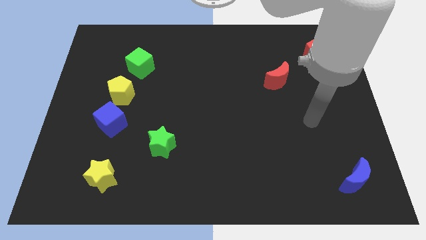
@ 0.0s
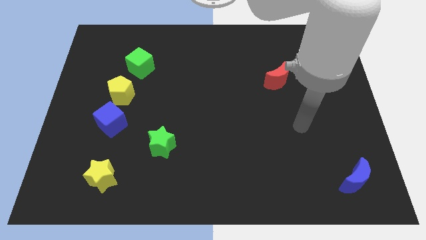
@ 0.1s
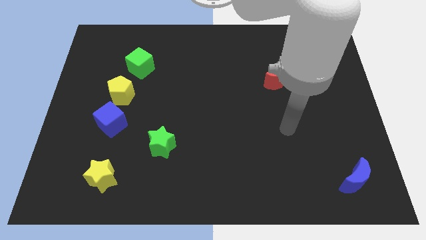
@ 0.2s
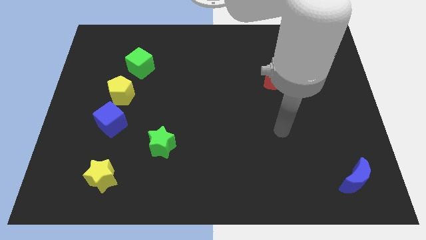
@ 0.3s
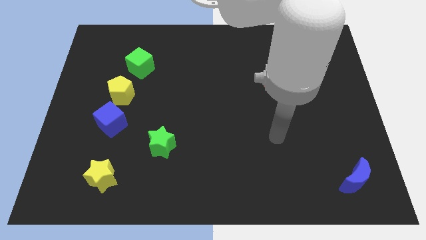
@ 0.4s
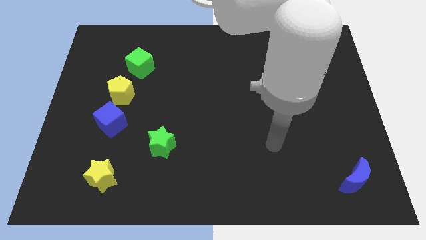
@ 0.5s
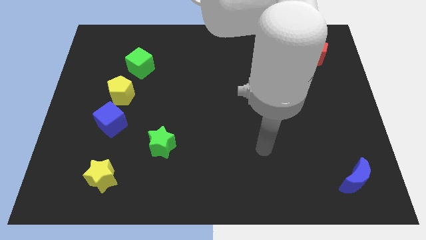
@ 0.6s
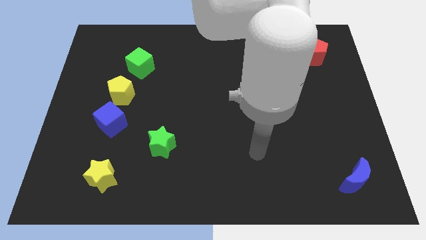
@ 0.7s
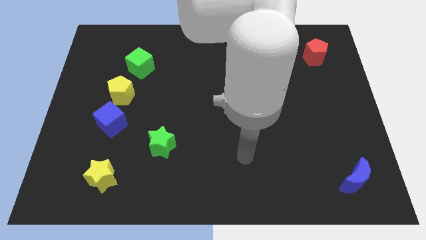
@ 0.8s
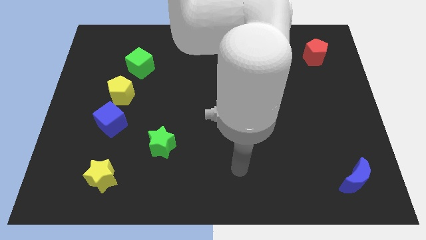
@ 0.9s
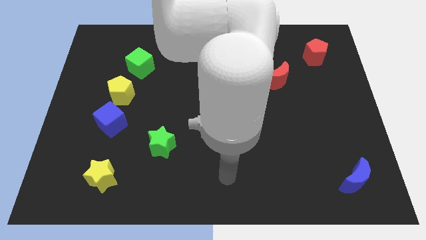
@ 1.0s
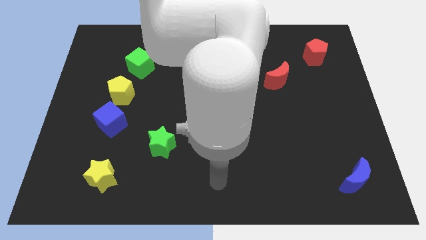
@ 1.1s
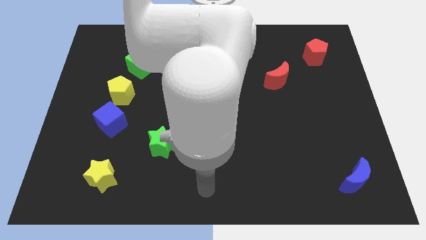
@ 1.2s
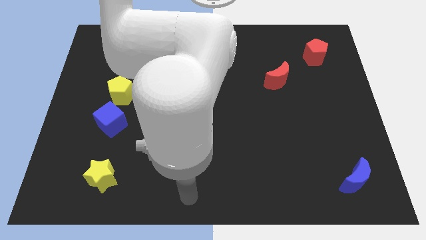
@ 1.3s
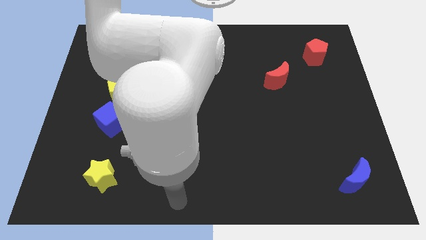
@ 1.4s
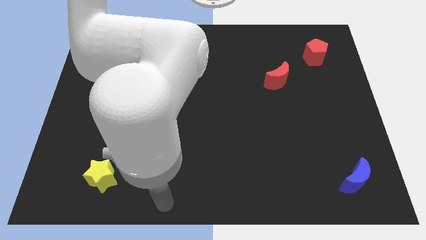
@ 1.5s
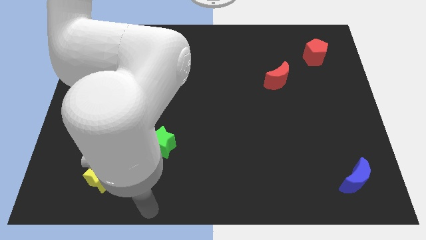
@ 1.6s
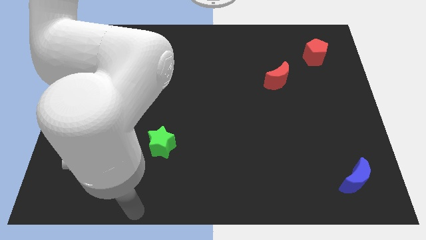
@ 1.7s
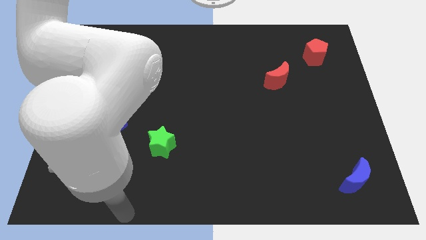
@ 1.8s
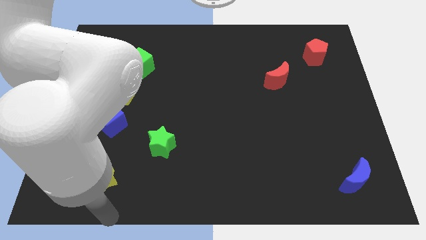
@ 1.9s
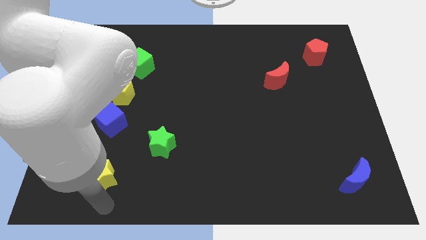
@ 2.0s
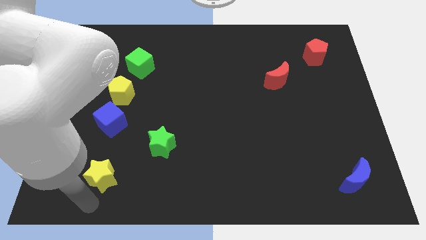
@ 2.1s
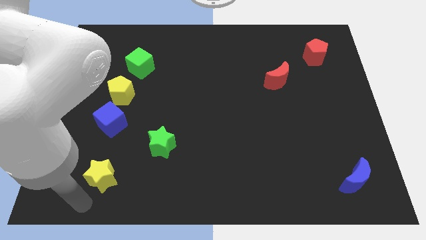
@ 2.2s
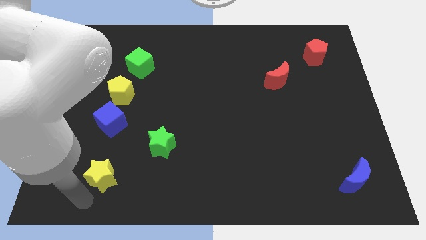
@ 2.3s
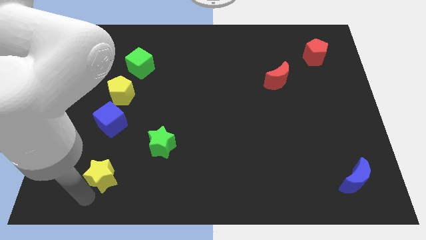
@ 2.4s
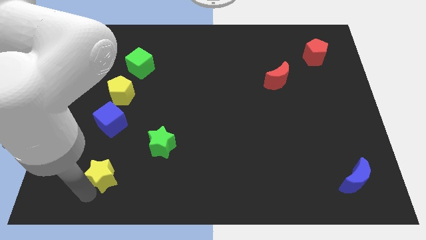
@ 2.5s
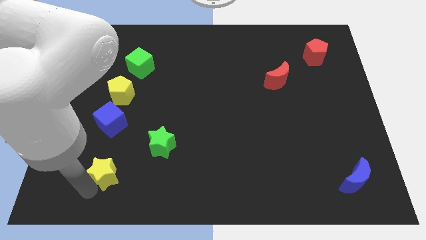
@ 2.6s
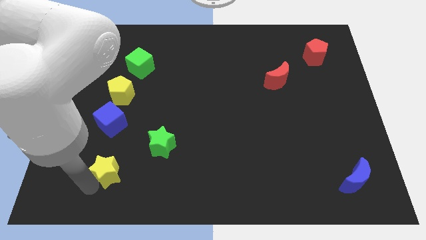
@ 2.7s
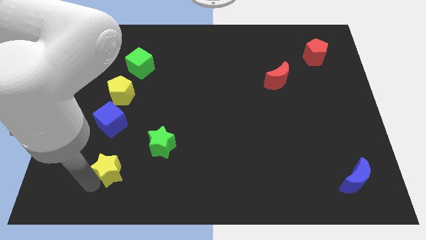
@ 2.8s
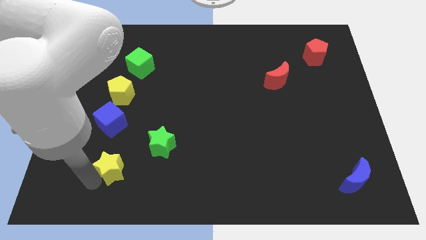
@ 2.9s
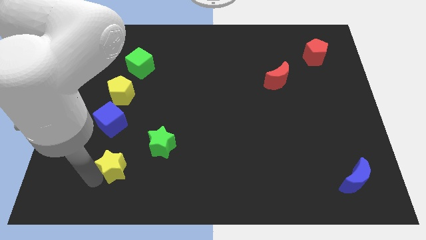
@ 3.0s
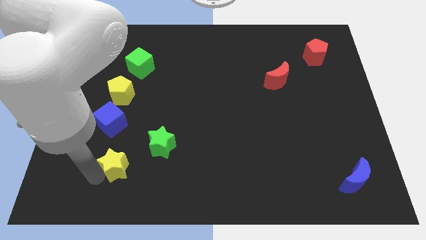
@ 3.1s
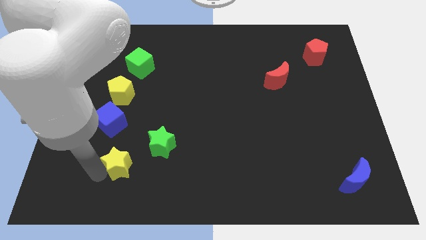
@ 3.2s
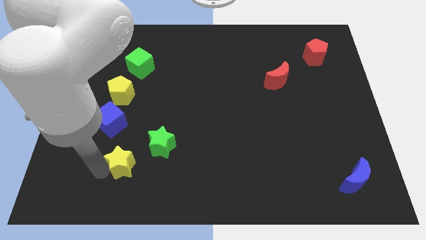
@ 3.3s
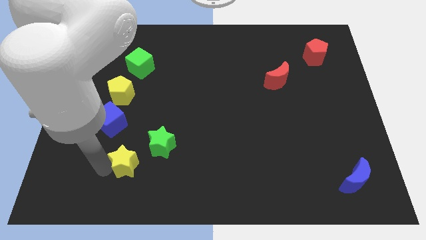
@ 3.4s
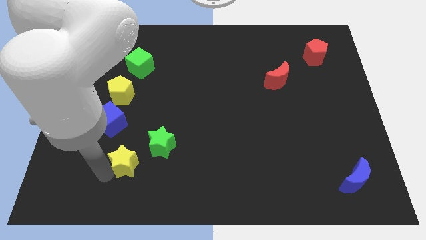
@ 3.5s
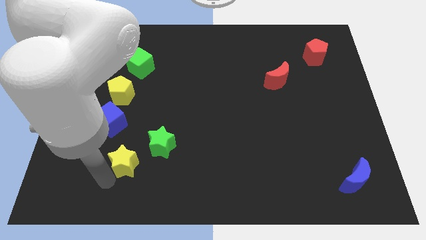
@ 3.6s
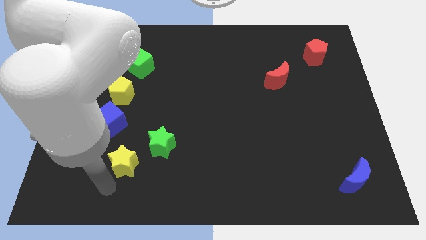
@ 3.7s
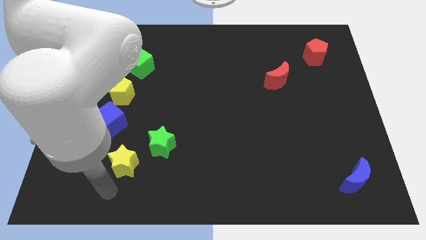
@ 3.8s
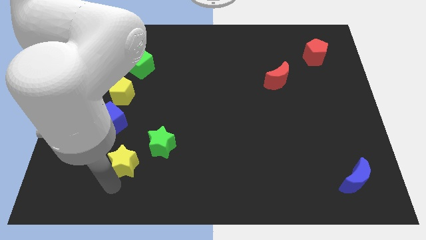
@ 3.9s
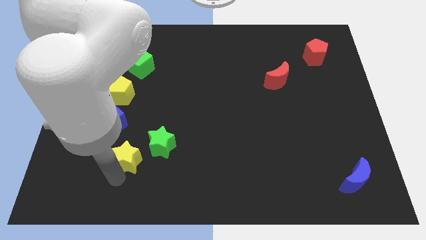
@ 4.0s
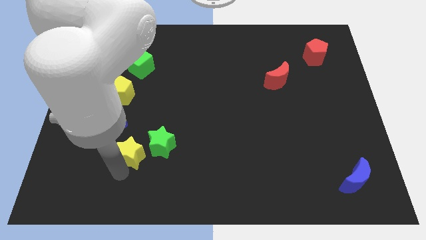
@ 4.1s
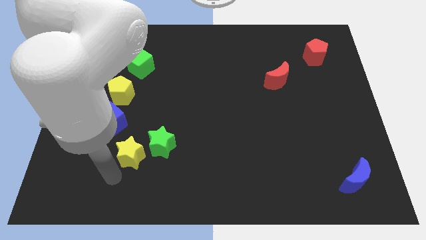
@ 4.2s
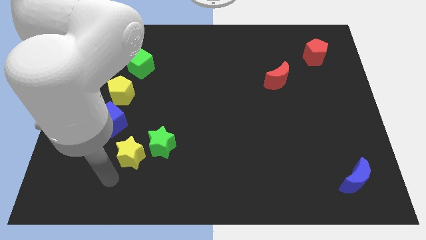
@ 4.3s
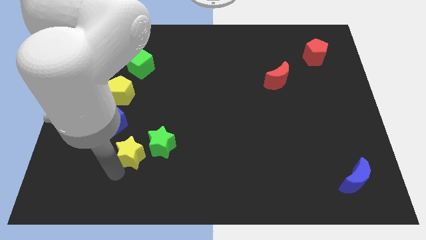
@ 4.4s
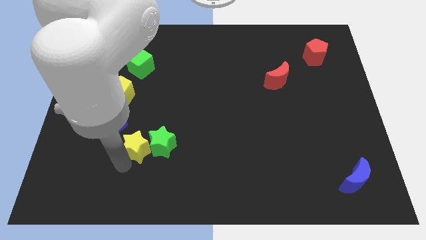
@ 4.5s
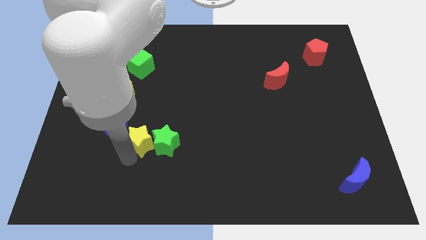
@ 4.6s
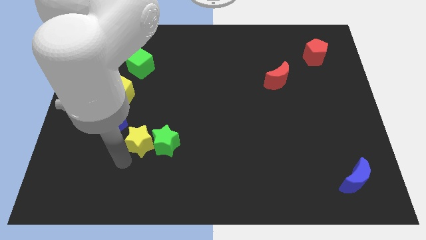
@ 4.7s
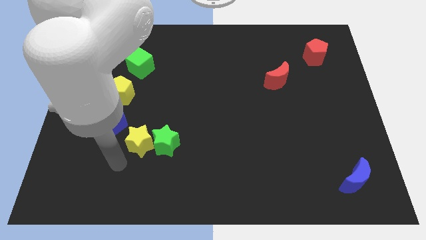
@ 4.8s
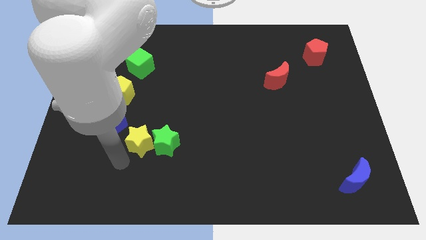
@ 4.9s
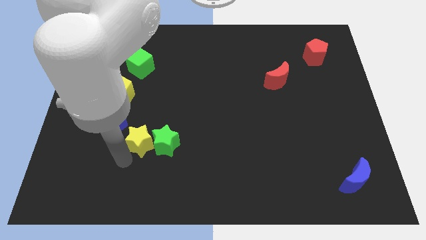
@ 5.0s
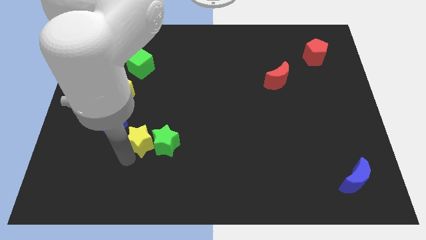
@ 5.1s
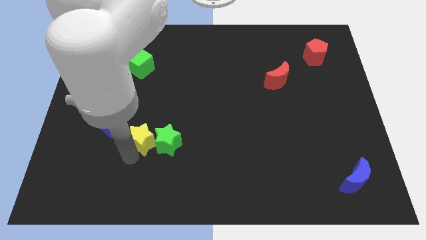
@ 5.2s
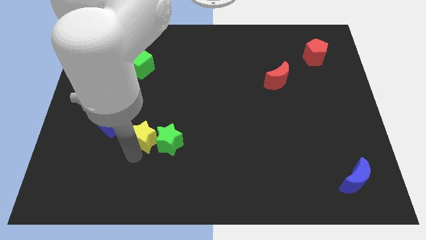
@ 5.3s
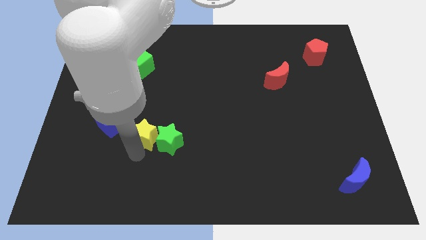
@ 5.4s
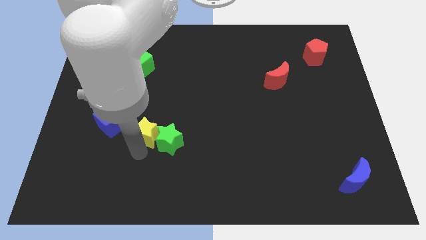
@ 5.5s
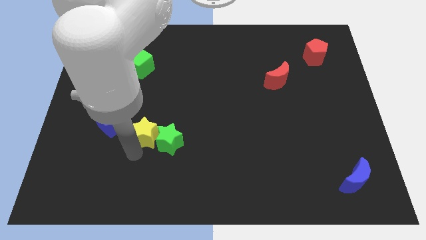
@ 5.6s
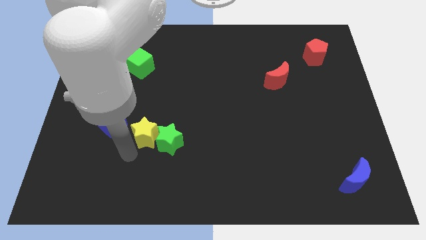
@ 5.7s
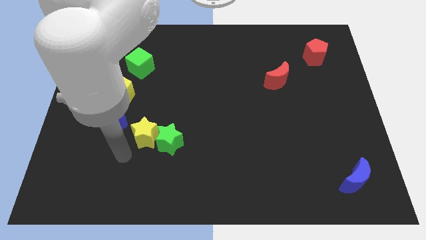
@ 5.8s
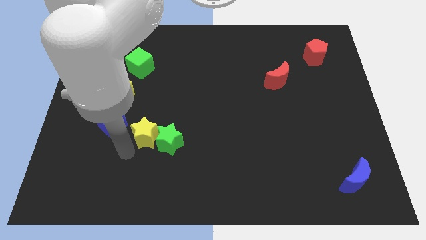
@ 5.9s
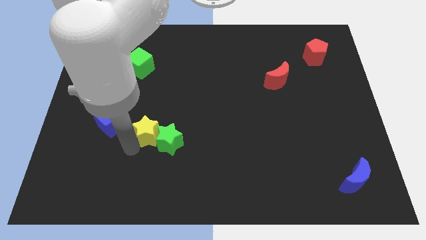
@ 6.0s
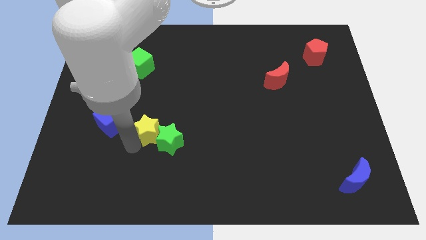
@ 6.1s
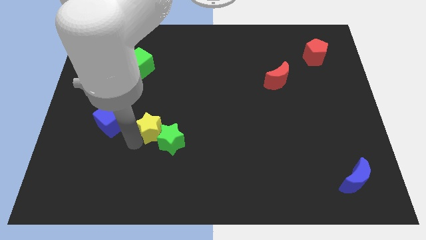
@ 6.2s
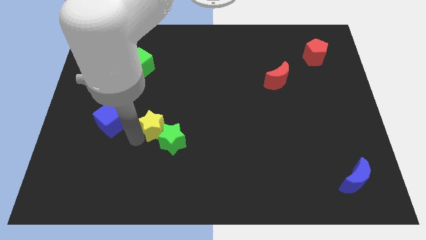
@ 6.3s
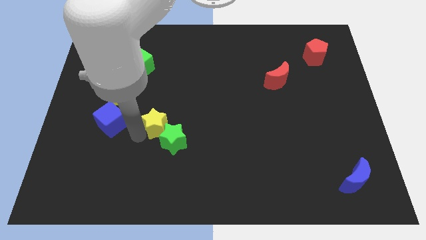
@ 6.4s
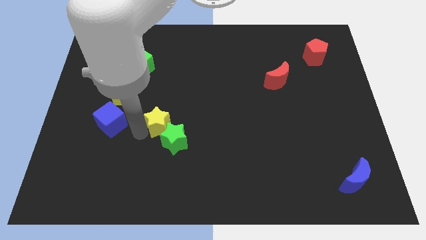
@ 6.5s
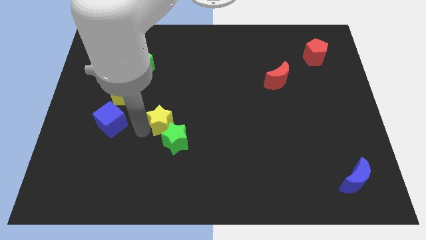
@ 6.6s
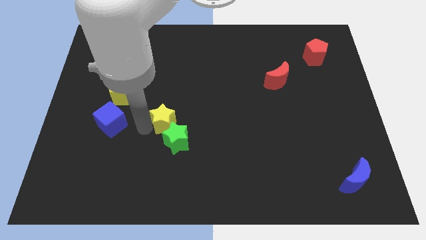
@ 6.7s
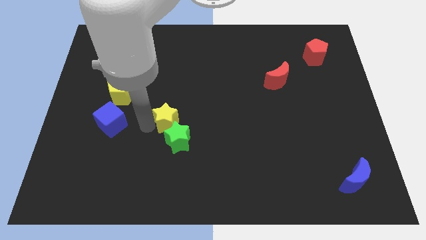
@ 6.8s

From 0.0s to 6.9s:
put the yellow star to the middle of the board
